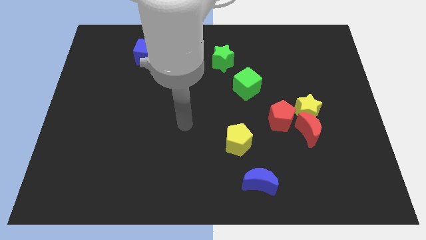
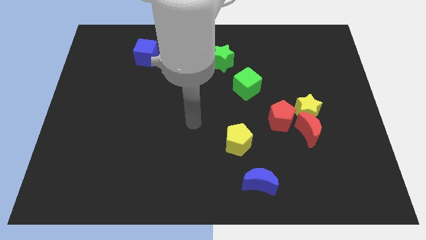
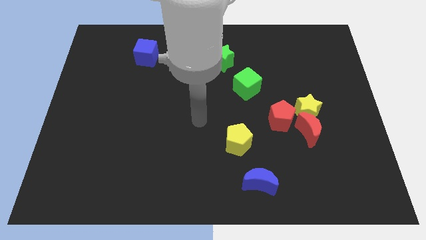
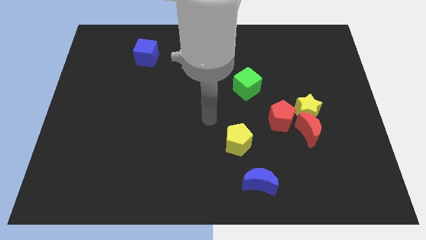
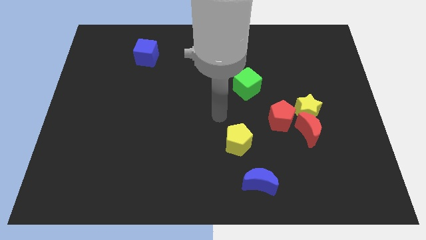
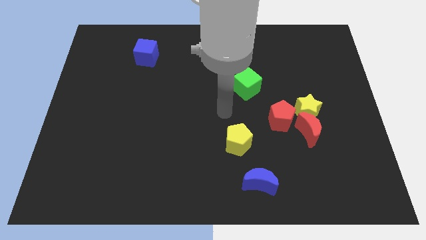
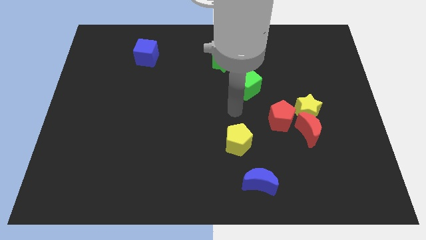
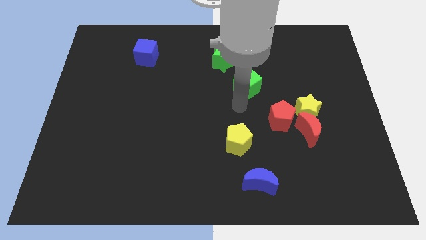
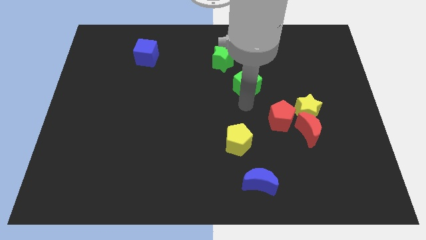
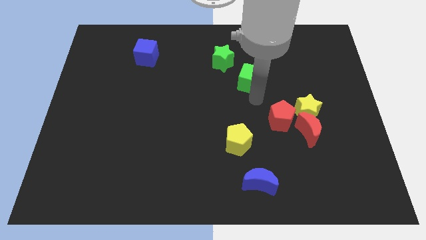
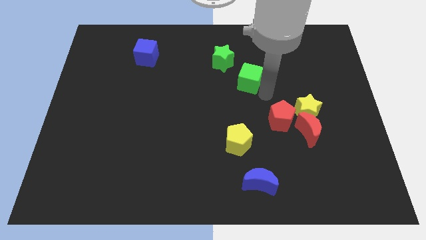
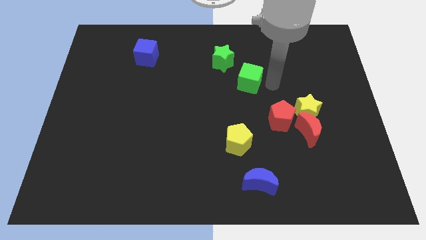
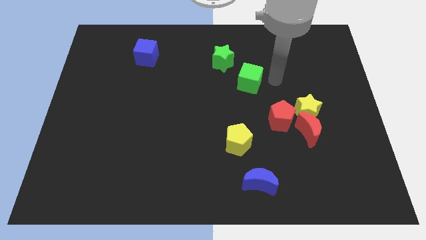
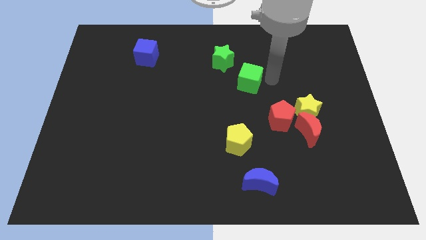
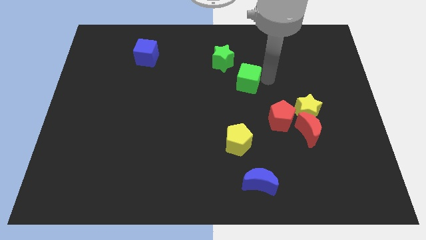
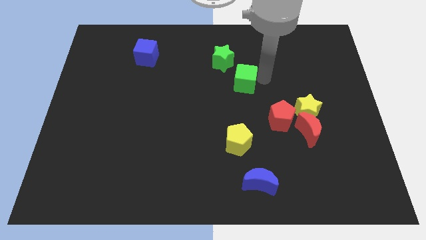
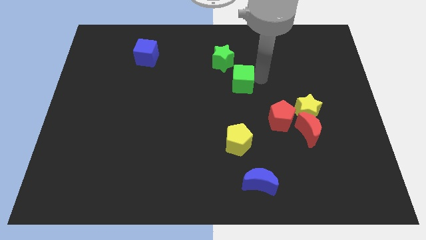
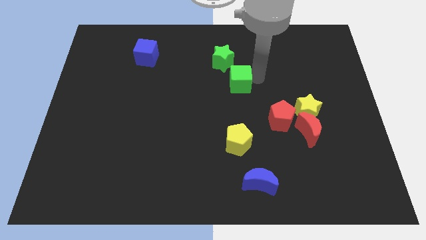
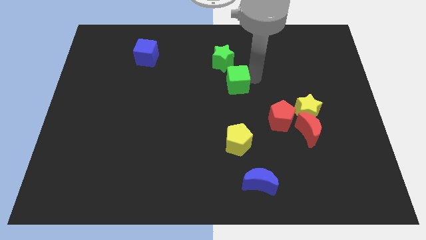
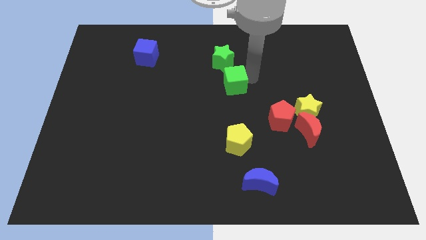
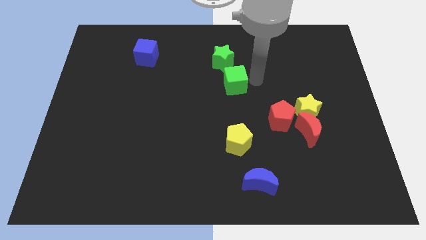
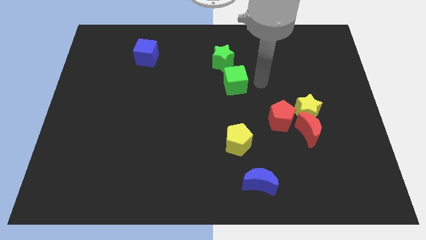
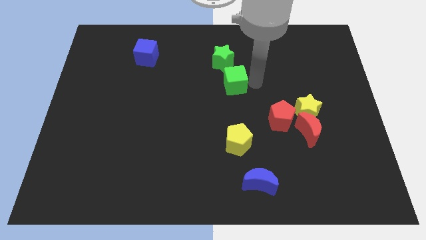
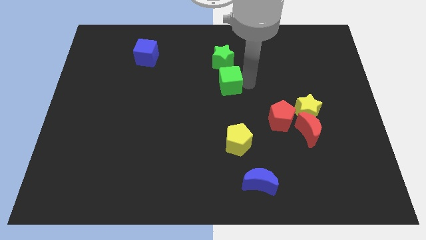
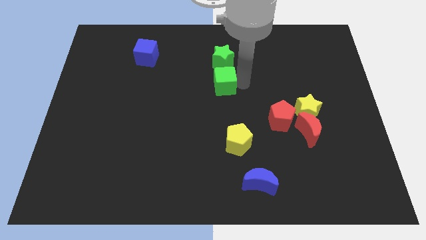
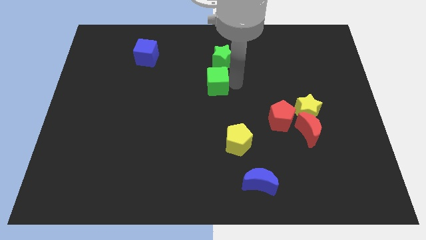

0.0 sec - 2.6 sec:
move the green cube a little bit to the left

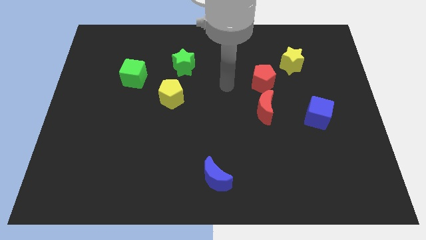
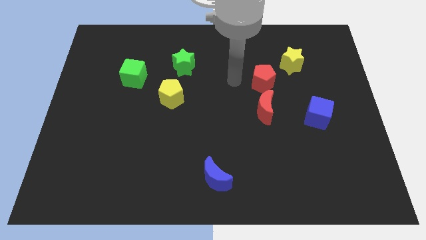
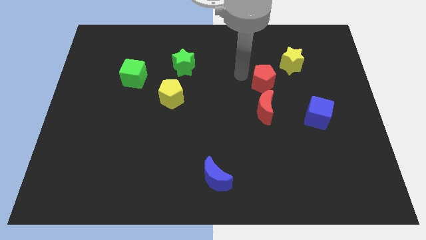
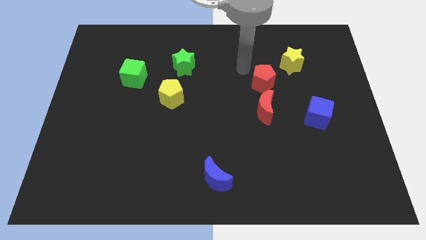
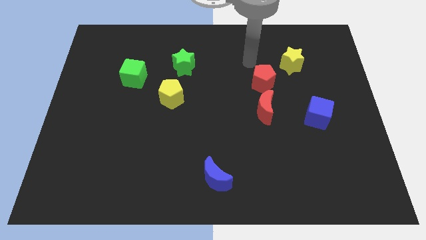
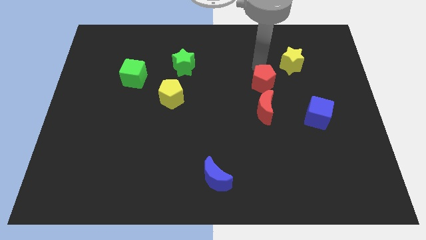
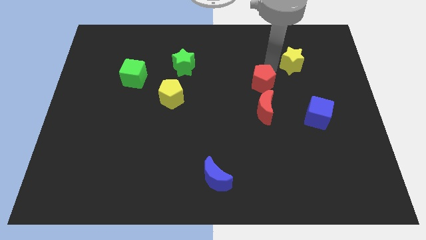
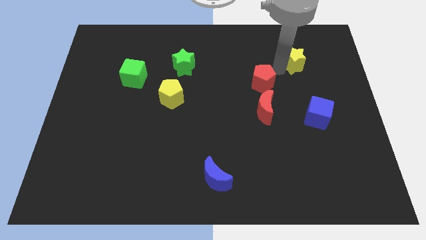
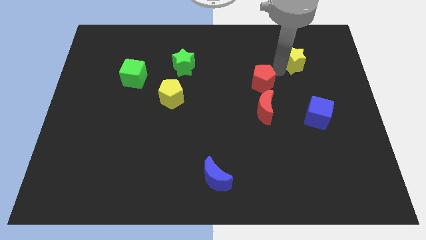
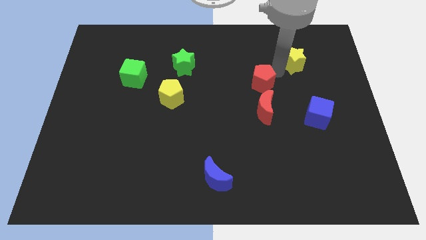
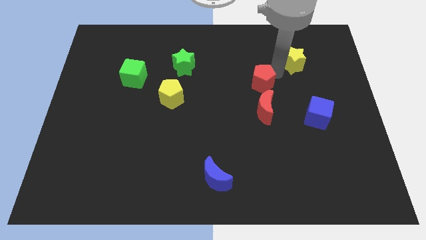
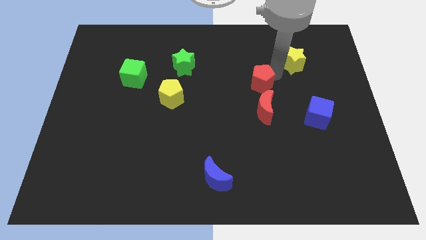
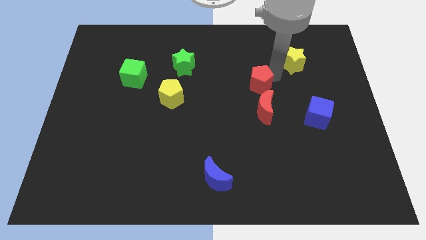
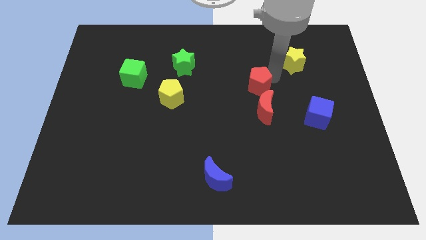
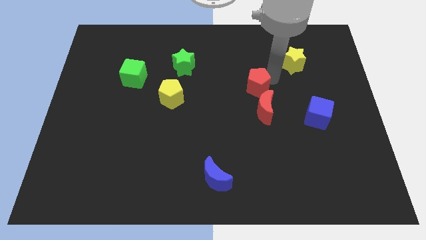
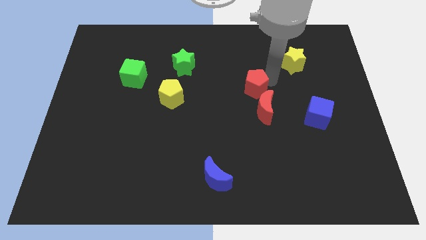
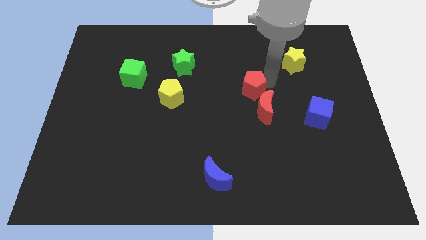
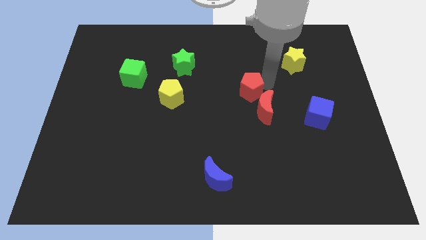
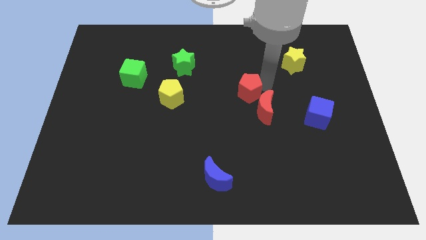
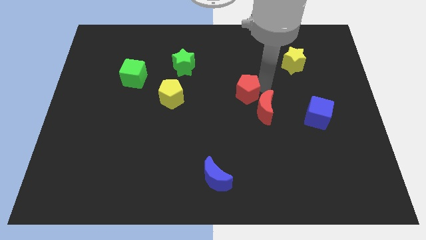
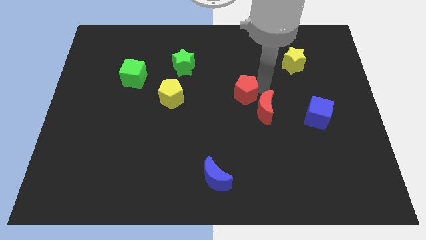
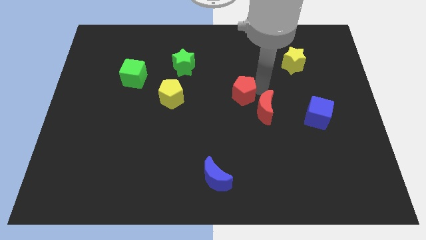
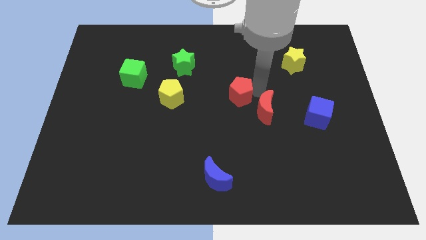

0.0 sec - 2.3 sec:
push the red pentagon slightly down and to the left diagonally

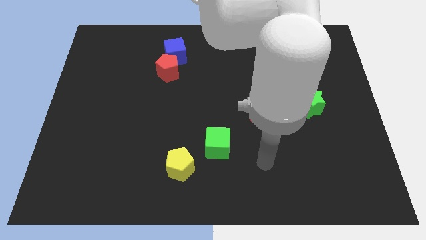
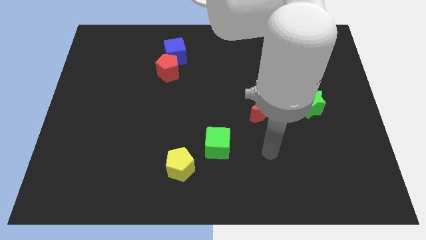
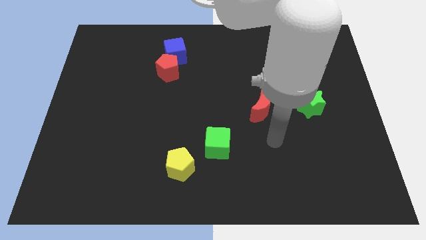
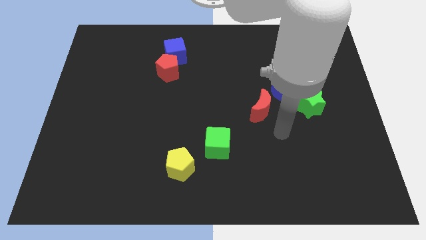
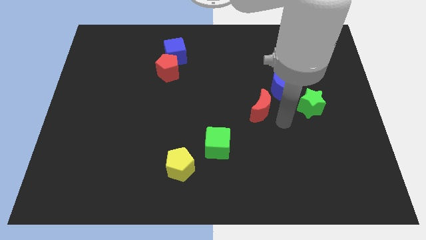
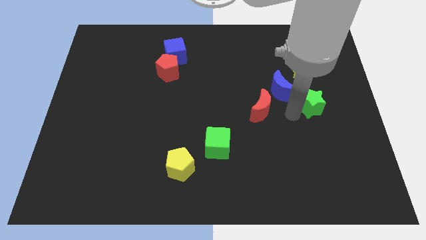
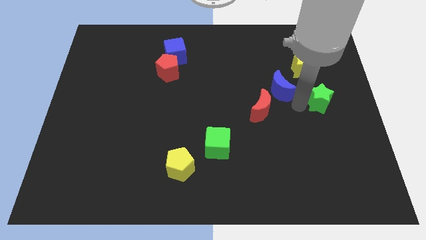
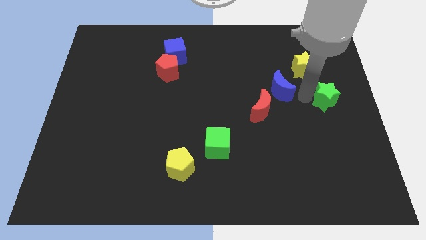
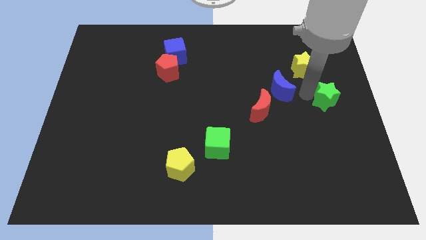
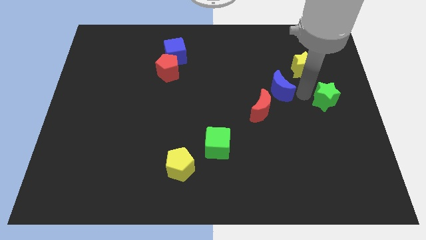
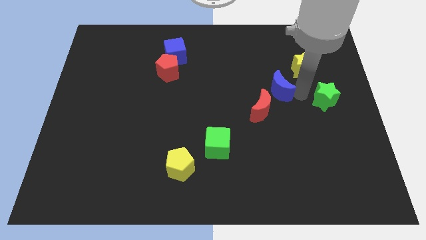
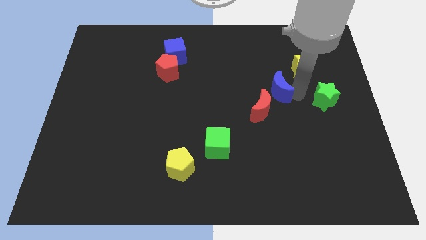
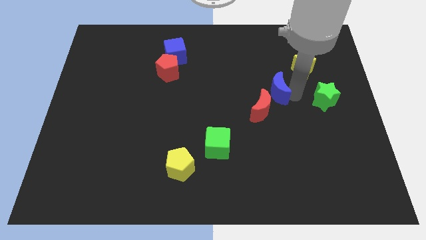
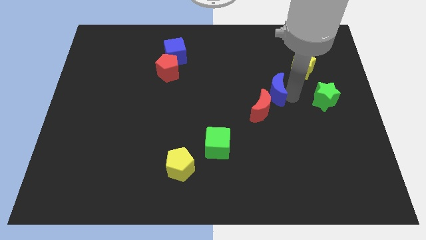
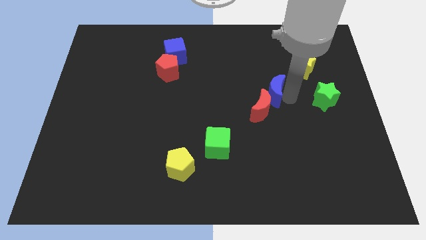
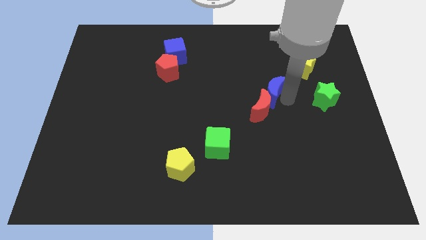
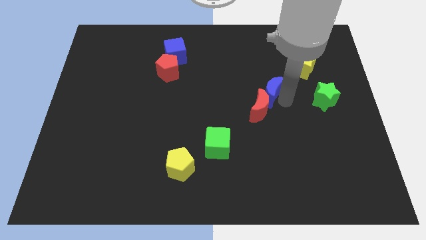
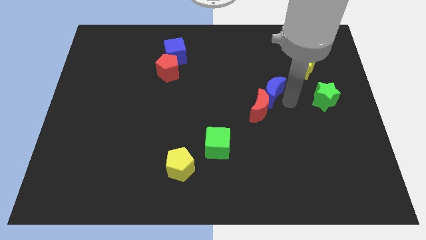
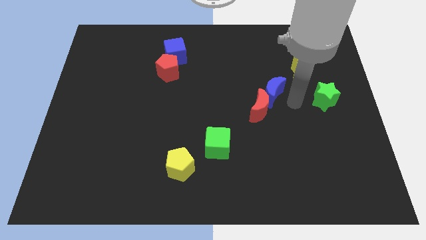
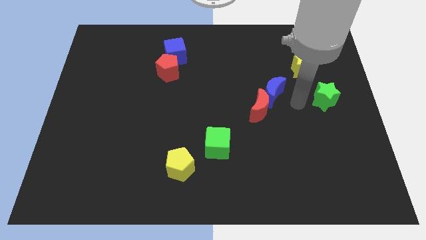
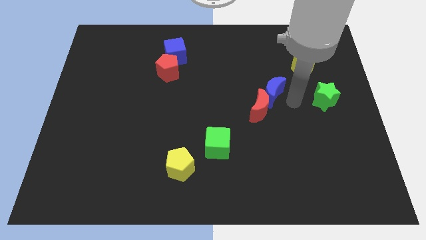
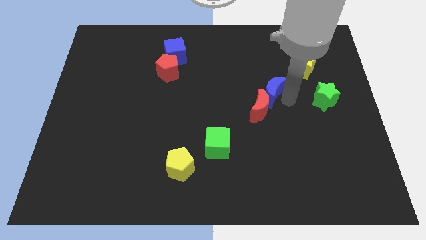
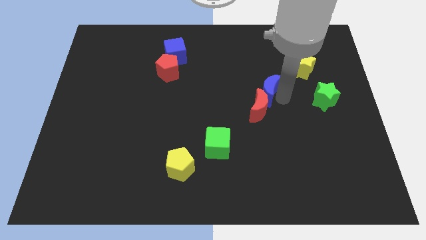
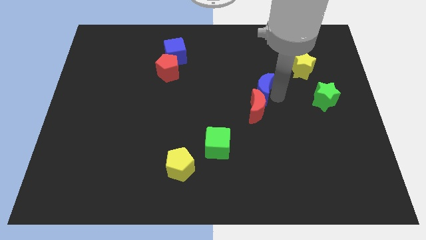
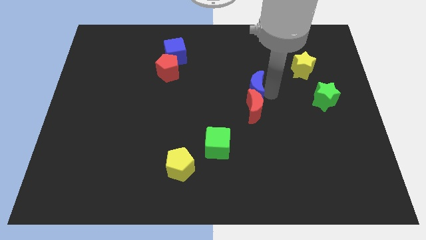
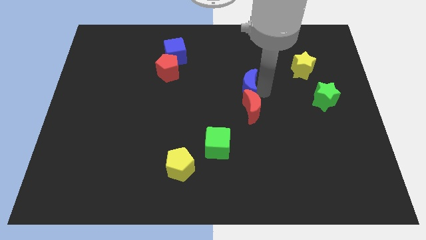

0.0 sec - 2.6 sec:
push the blue moon to the left a little

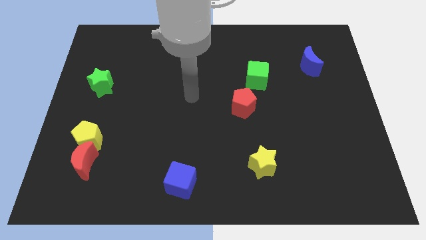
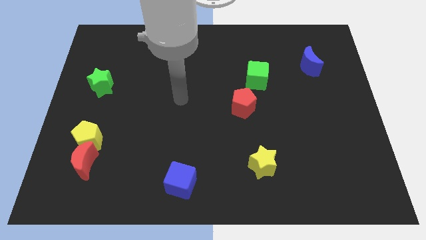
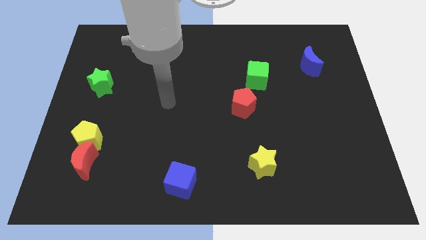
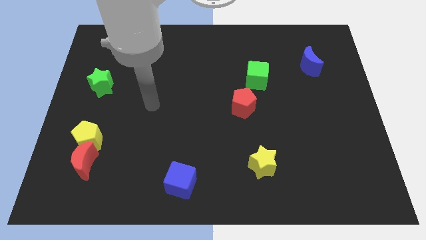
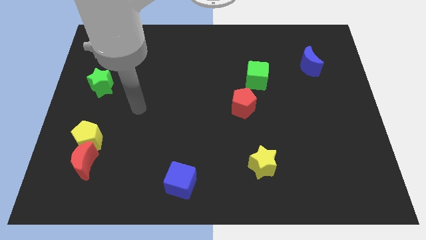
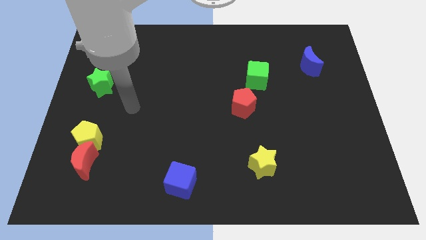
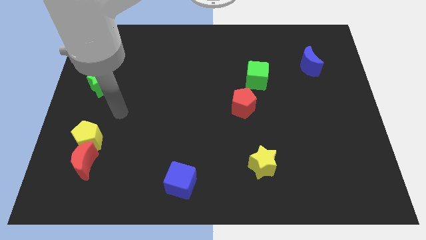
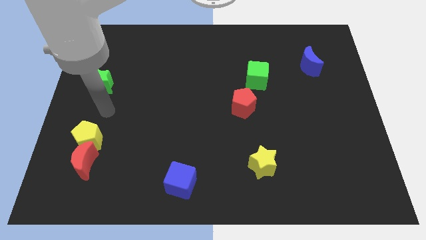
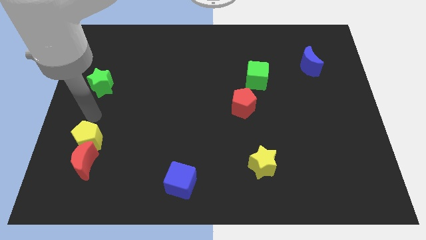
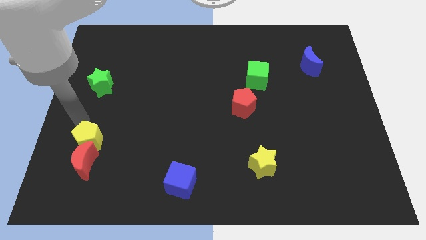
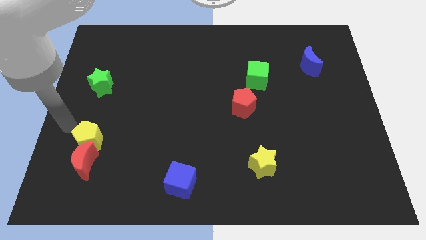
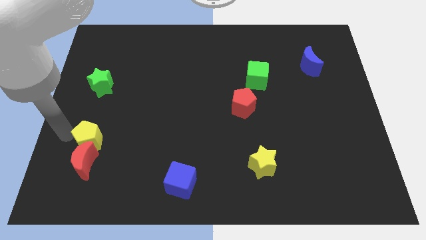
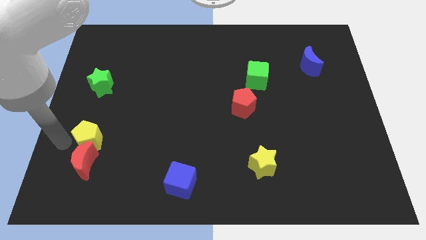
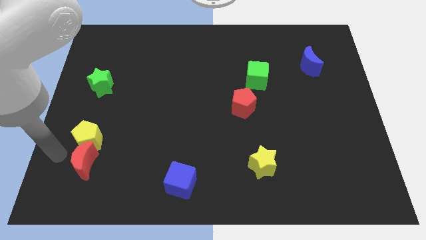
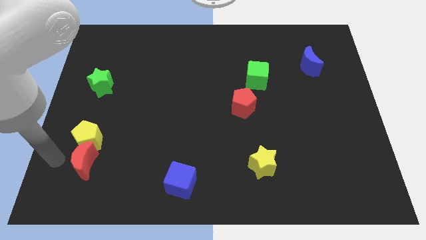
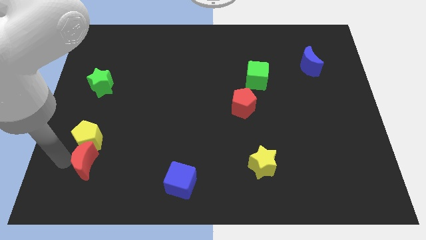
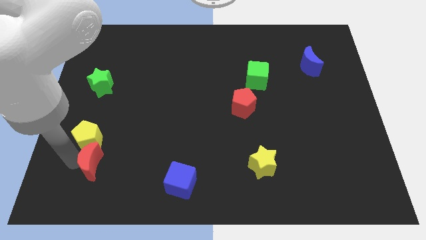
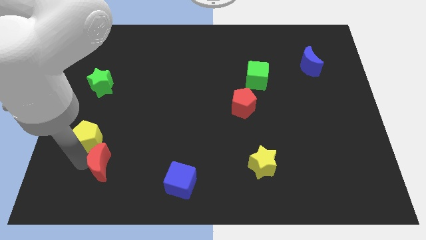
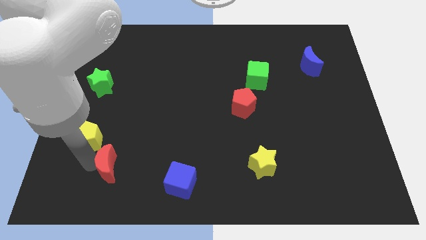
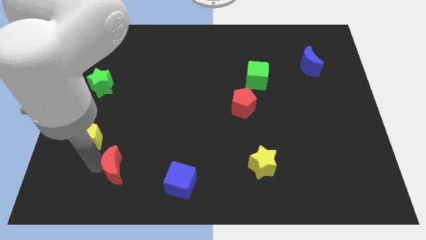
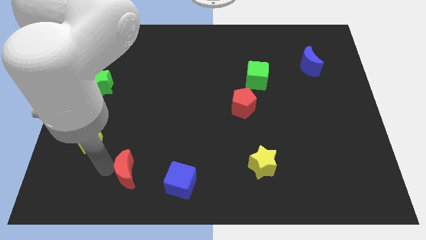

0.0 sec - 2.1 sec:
slightly move the red moon to the right
